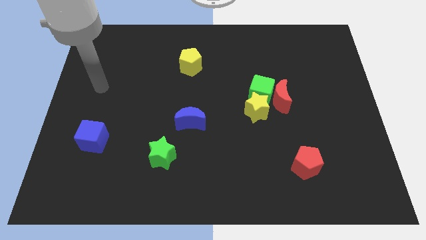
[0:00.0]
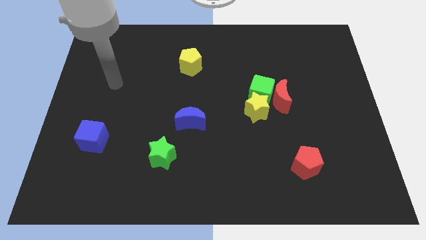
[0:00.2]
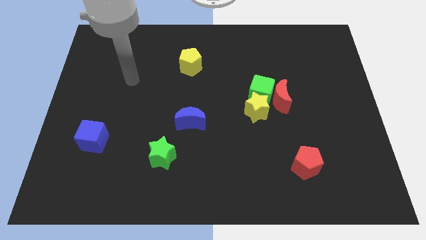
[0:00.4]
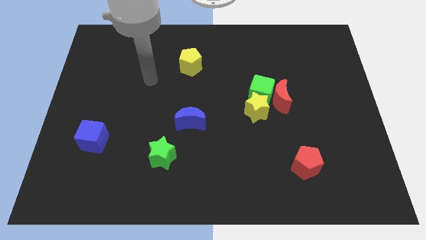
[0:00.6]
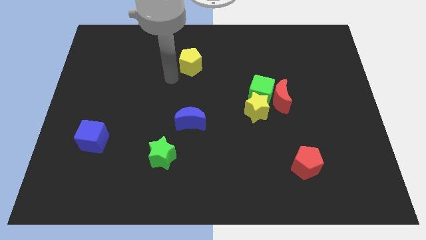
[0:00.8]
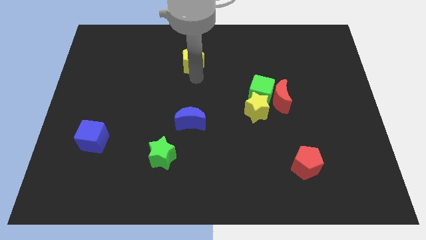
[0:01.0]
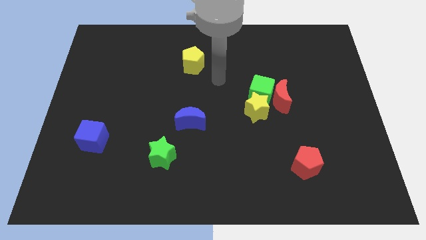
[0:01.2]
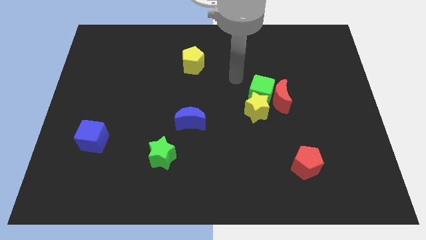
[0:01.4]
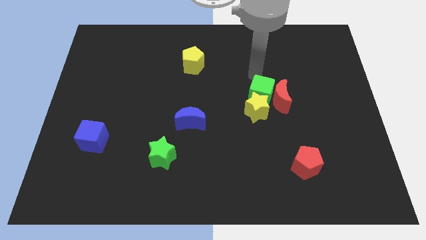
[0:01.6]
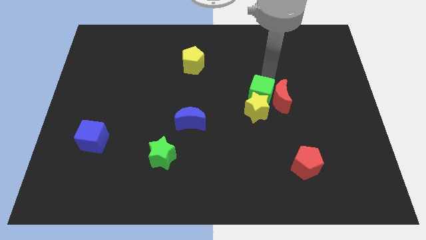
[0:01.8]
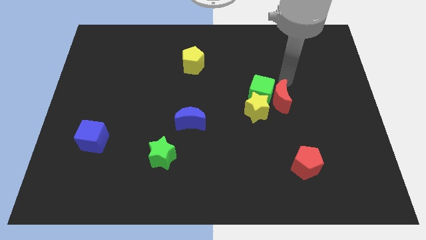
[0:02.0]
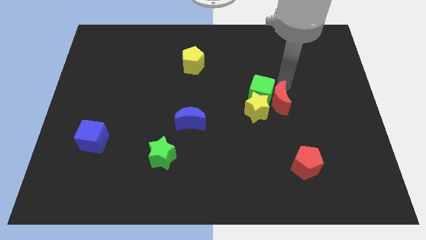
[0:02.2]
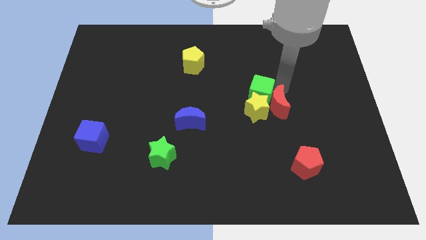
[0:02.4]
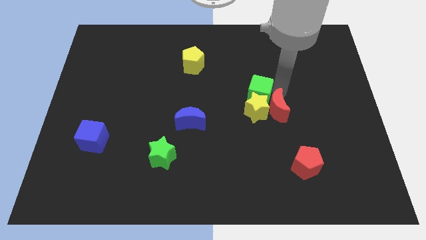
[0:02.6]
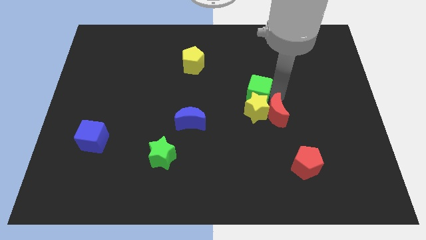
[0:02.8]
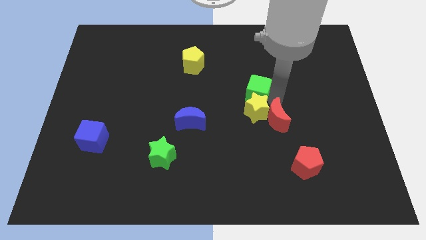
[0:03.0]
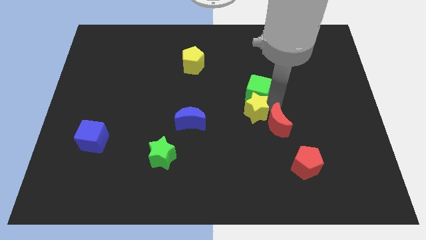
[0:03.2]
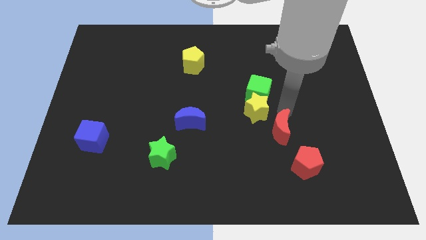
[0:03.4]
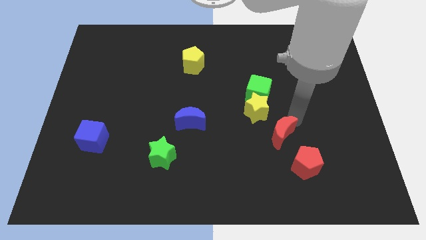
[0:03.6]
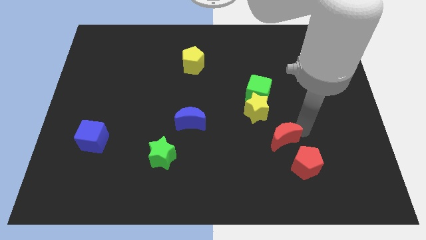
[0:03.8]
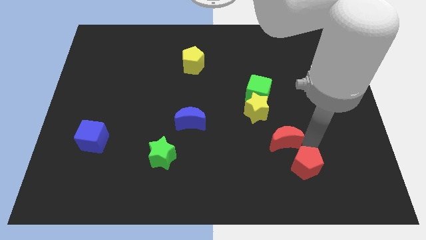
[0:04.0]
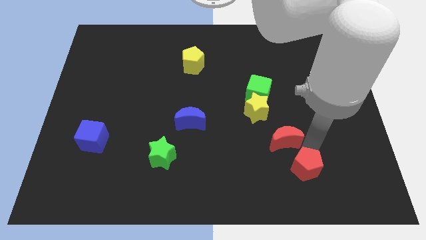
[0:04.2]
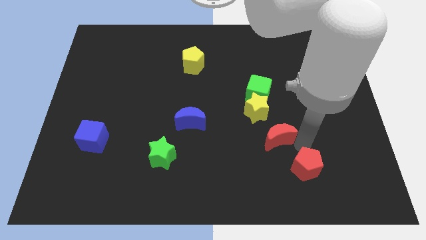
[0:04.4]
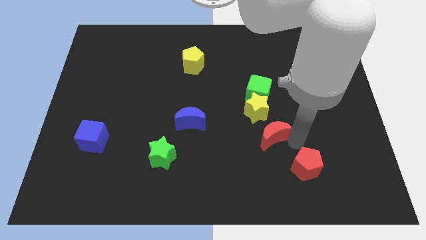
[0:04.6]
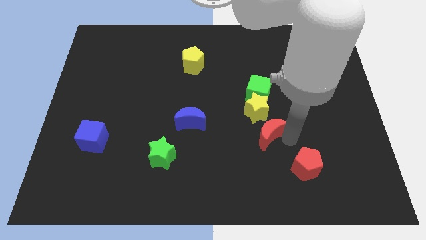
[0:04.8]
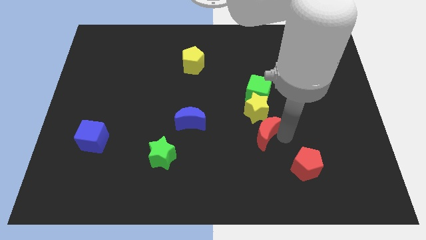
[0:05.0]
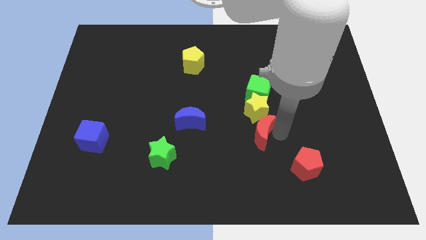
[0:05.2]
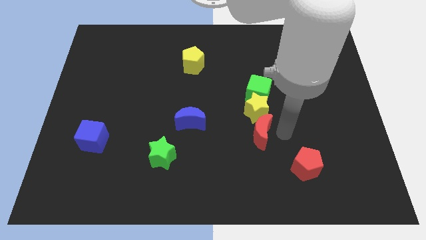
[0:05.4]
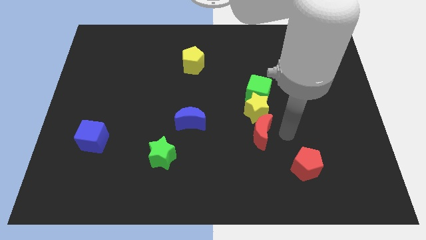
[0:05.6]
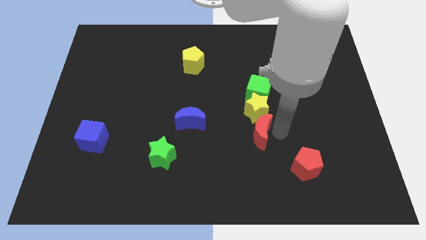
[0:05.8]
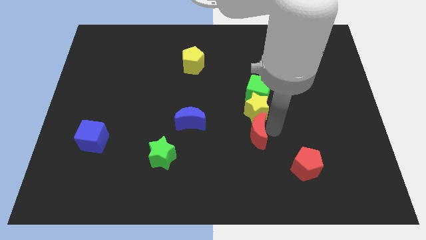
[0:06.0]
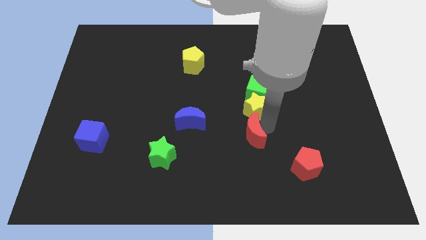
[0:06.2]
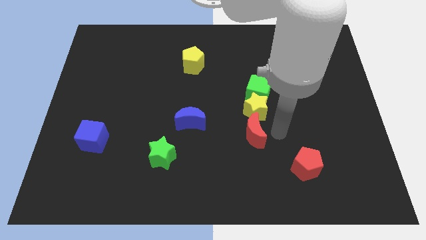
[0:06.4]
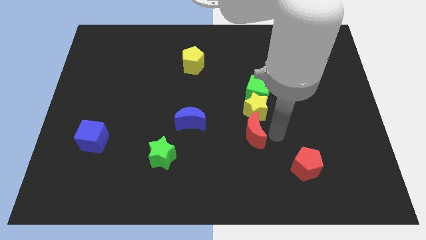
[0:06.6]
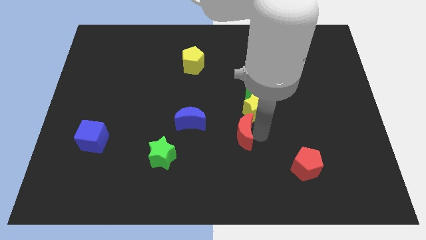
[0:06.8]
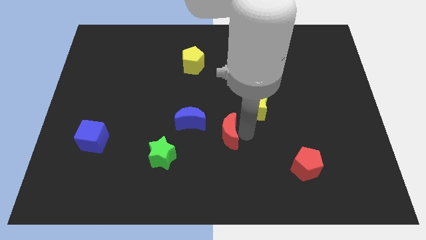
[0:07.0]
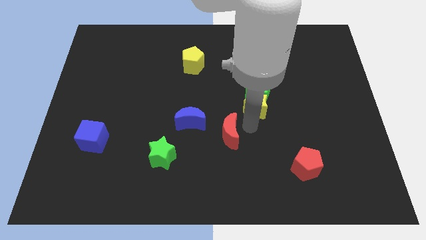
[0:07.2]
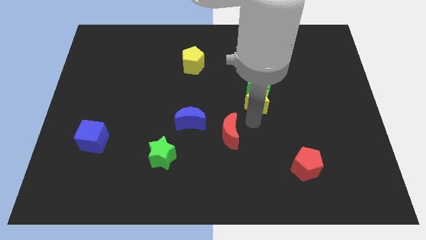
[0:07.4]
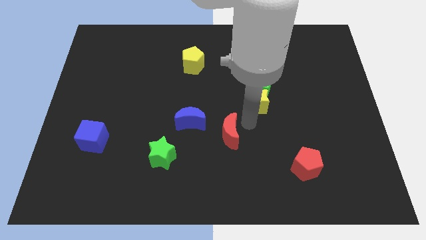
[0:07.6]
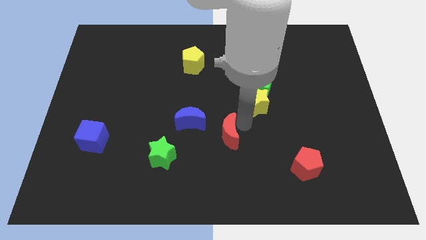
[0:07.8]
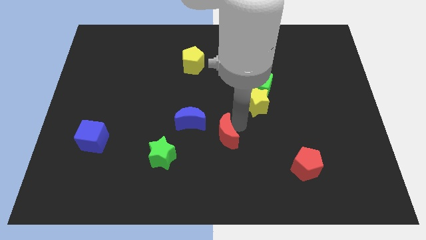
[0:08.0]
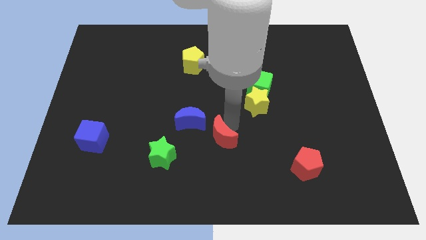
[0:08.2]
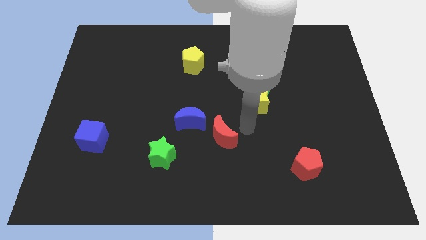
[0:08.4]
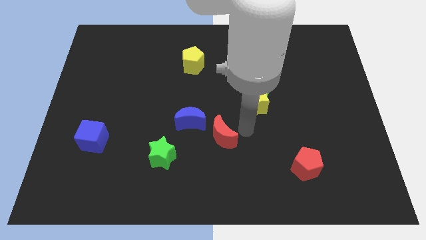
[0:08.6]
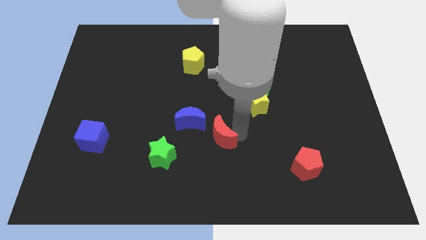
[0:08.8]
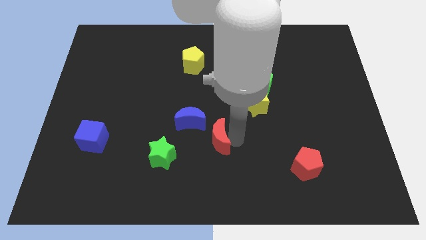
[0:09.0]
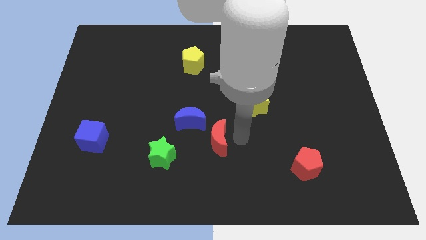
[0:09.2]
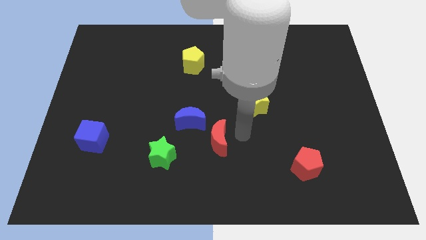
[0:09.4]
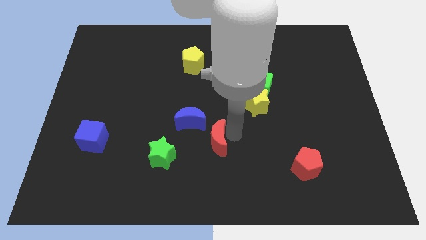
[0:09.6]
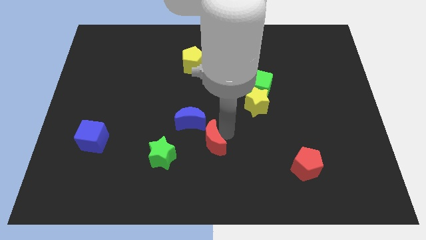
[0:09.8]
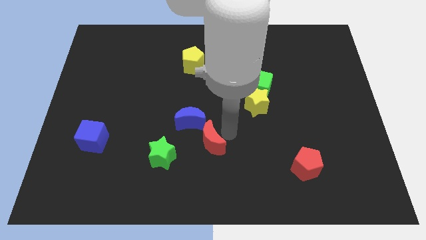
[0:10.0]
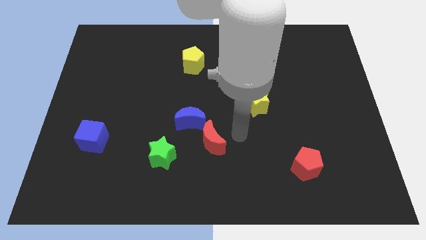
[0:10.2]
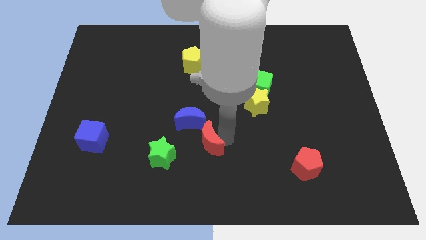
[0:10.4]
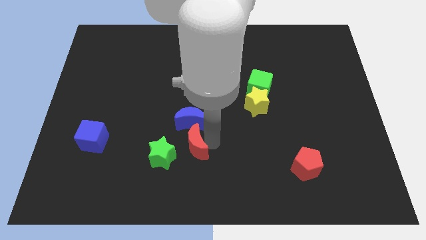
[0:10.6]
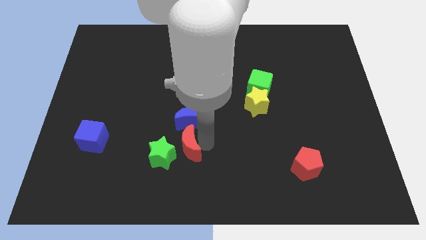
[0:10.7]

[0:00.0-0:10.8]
push the red moon towards the green star

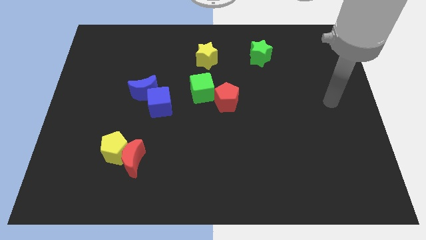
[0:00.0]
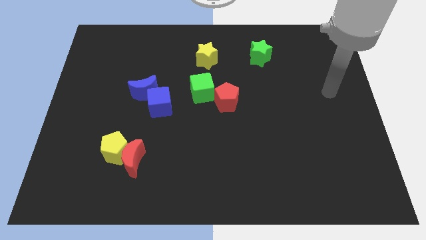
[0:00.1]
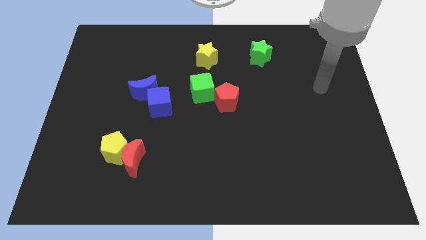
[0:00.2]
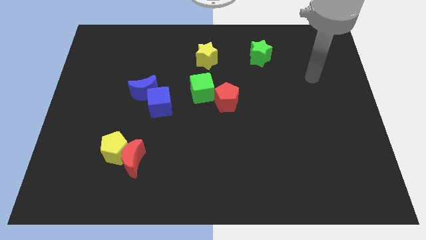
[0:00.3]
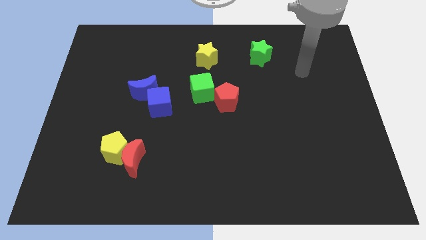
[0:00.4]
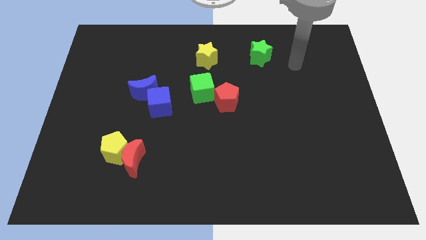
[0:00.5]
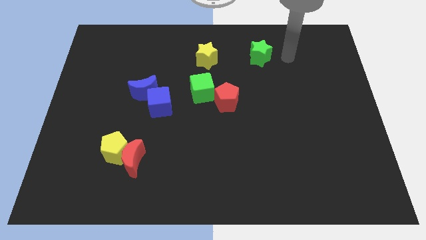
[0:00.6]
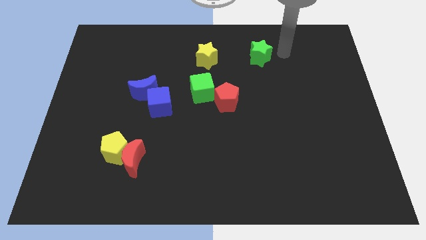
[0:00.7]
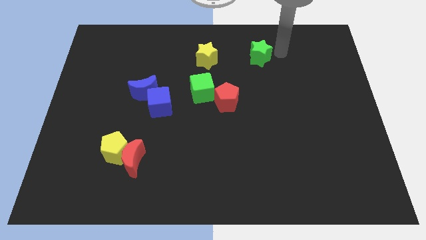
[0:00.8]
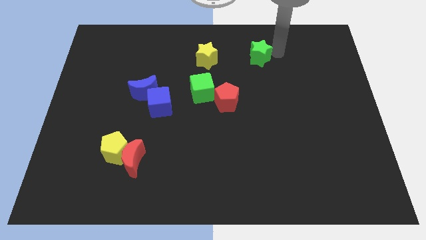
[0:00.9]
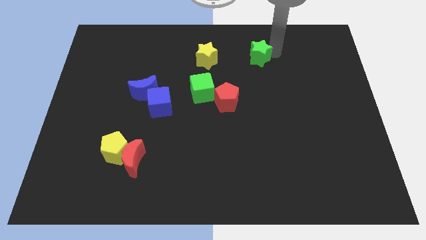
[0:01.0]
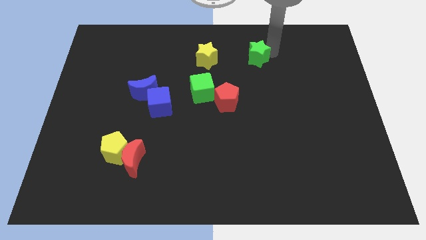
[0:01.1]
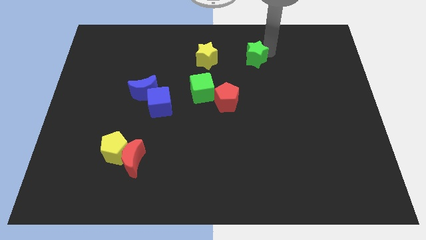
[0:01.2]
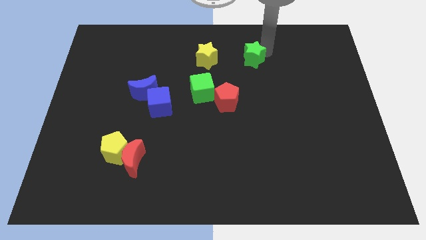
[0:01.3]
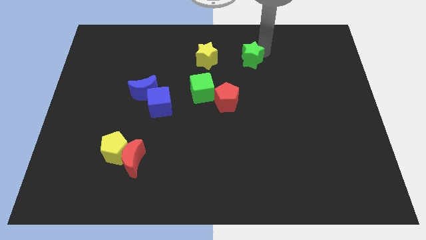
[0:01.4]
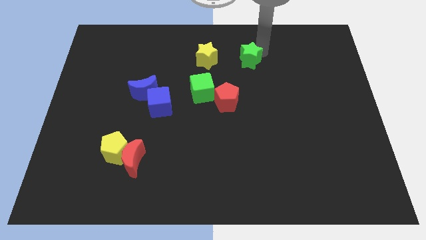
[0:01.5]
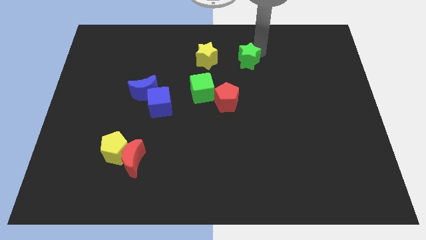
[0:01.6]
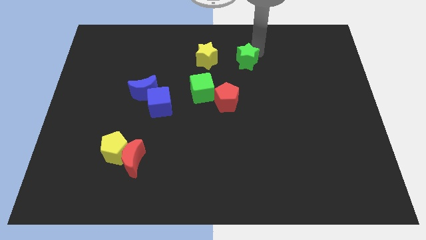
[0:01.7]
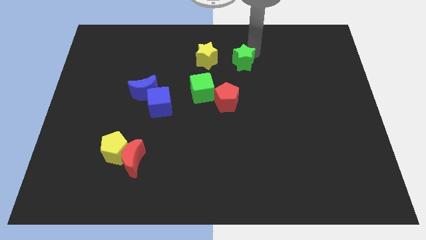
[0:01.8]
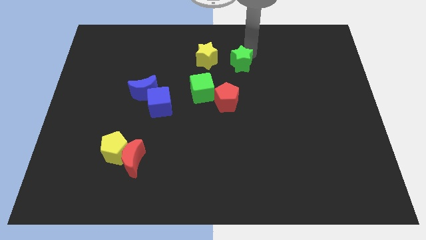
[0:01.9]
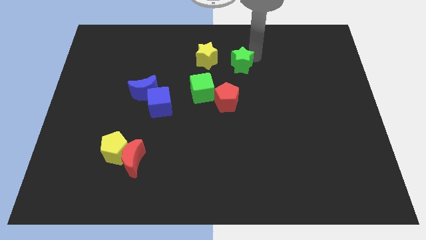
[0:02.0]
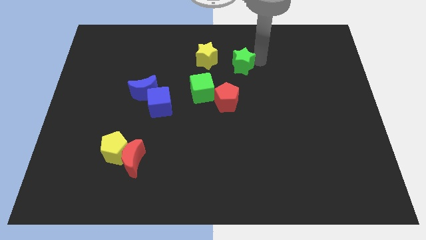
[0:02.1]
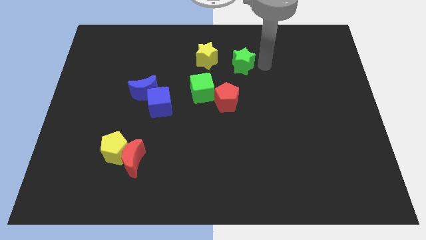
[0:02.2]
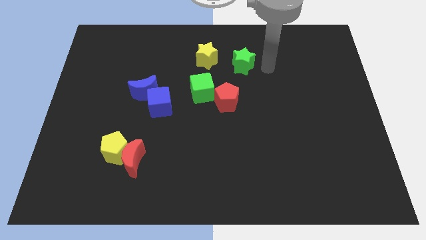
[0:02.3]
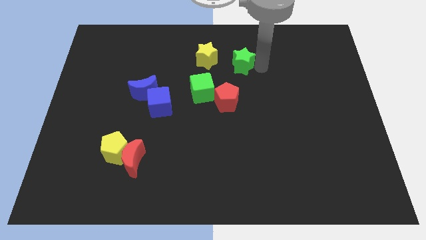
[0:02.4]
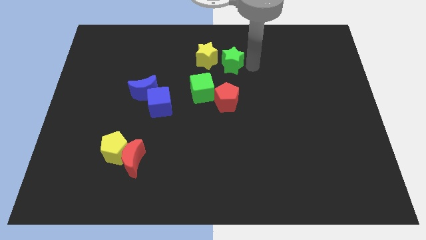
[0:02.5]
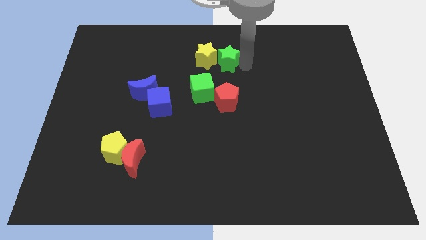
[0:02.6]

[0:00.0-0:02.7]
slide the green star next to the yellow star
